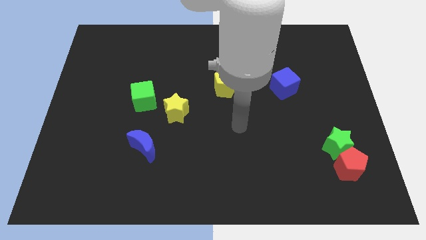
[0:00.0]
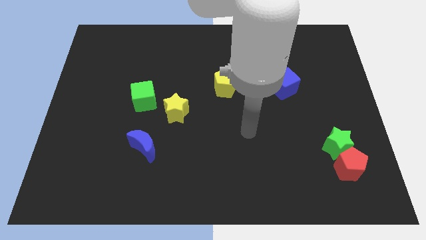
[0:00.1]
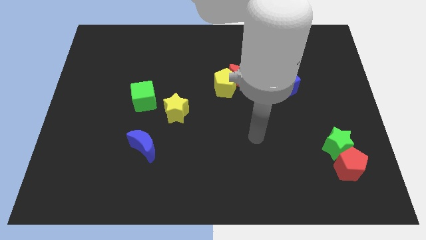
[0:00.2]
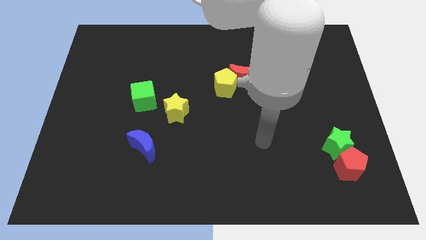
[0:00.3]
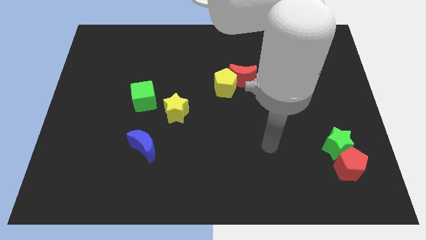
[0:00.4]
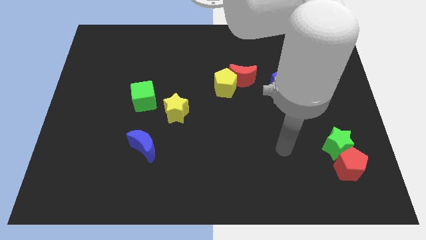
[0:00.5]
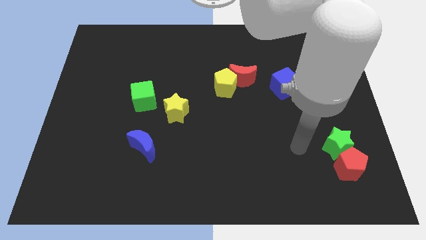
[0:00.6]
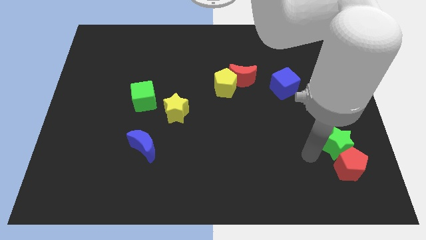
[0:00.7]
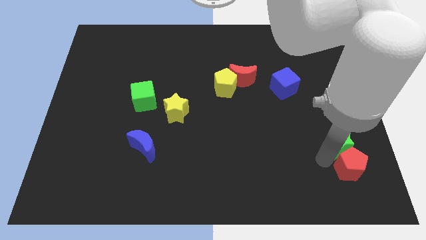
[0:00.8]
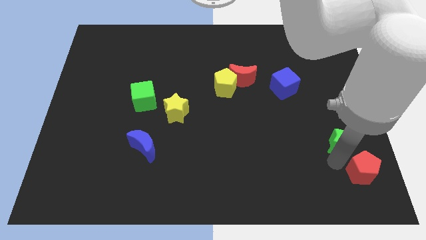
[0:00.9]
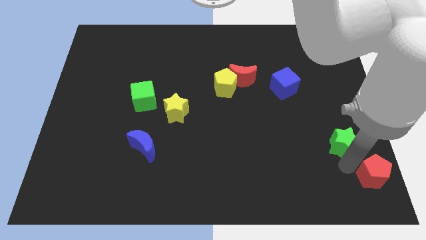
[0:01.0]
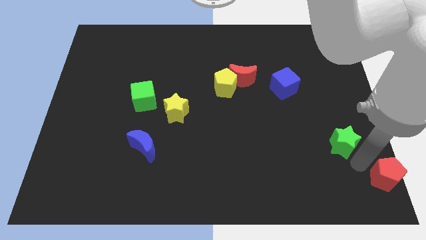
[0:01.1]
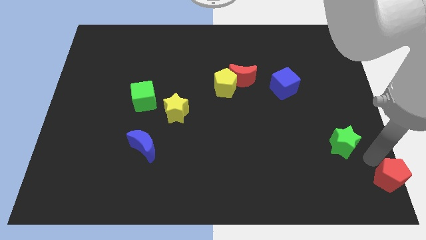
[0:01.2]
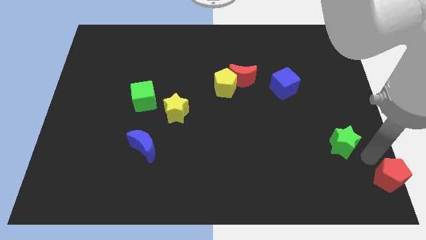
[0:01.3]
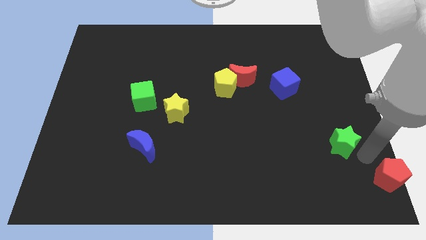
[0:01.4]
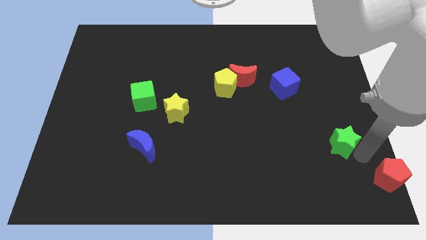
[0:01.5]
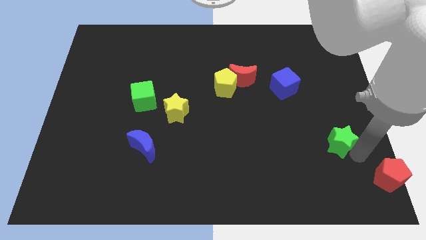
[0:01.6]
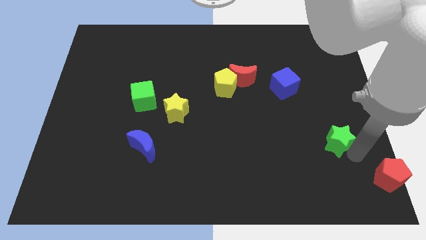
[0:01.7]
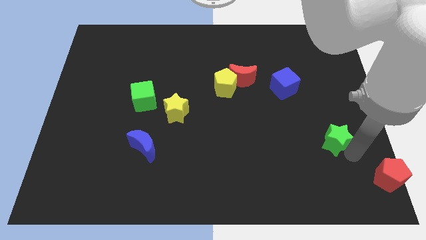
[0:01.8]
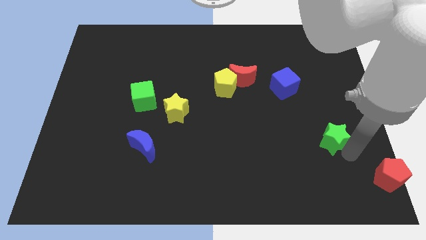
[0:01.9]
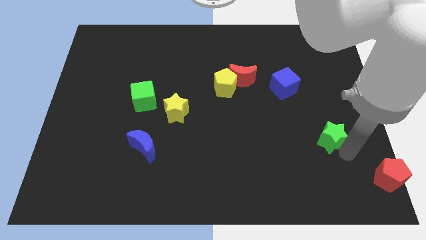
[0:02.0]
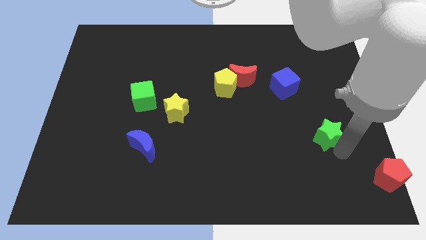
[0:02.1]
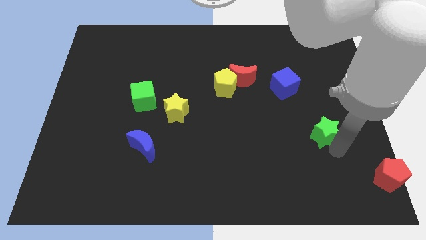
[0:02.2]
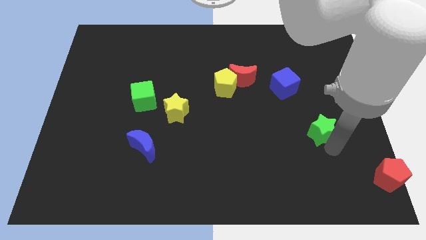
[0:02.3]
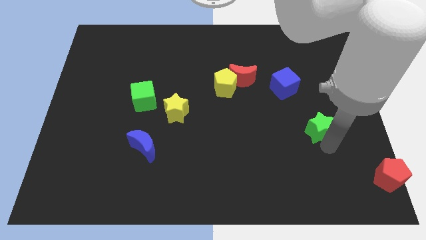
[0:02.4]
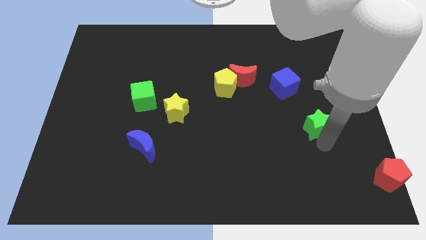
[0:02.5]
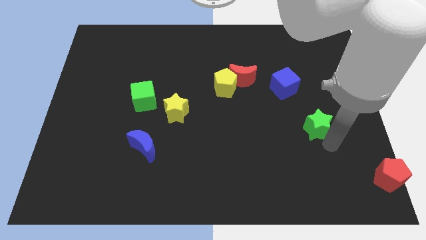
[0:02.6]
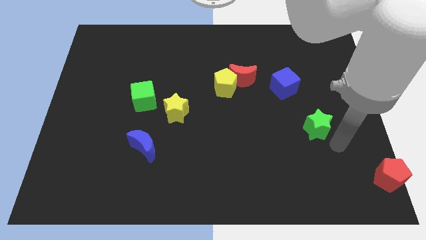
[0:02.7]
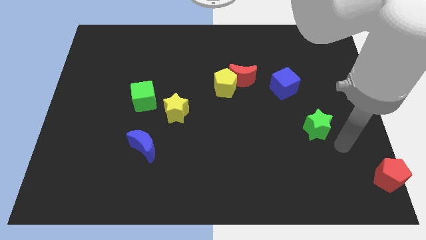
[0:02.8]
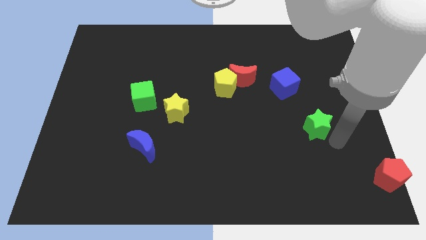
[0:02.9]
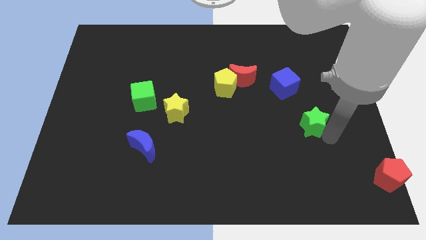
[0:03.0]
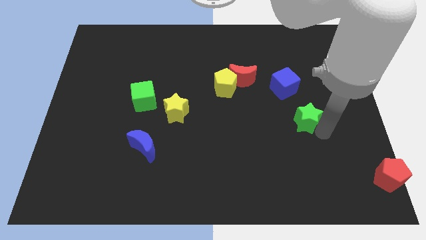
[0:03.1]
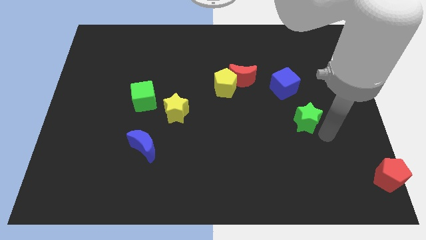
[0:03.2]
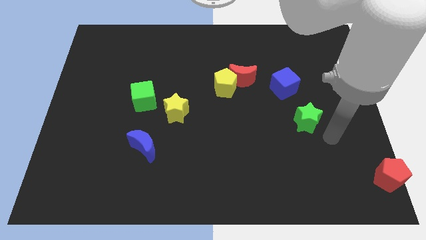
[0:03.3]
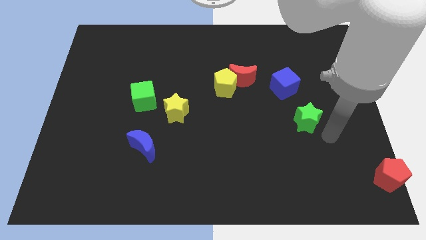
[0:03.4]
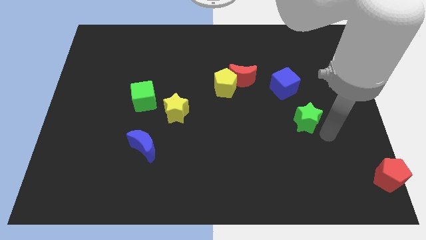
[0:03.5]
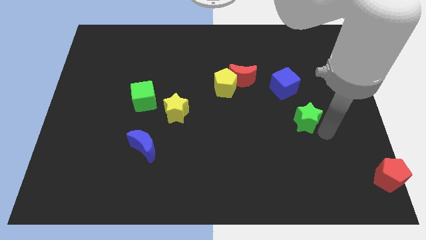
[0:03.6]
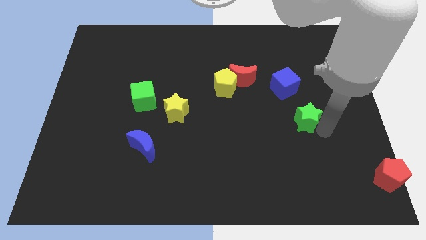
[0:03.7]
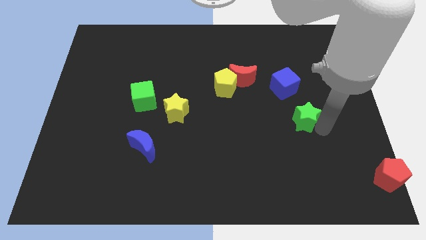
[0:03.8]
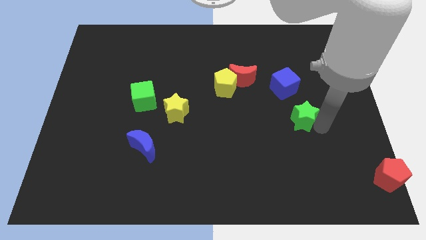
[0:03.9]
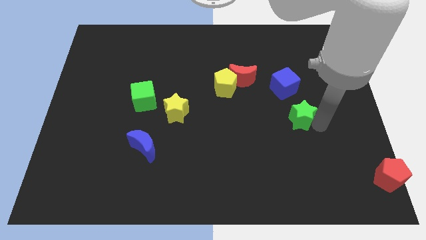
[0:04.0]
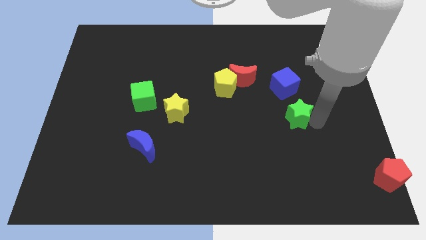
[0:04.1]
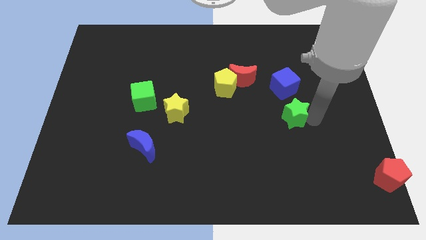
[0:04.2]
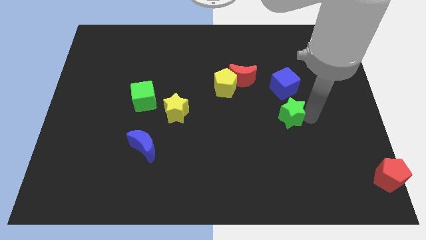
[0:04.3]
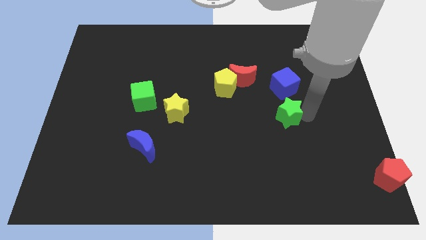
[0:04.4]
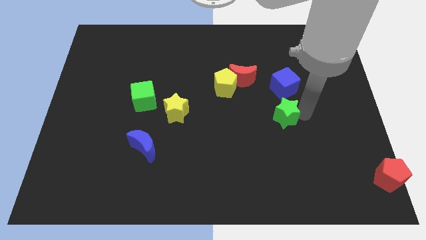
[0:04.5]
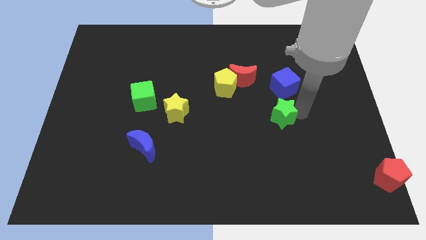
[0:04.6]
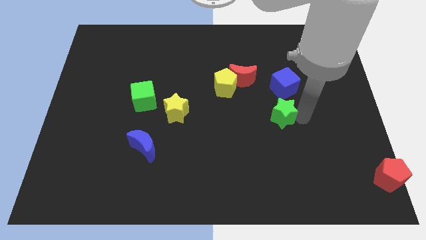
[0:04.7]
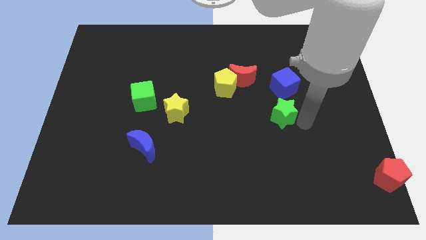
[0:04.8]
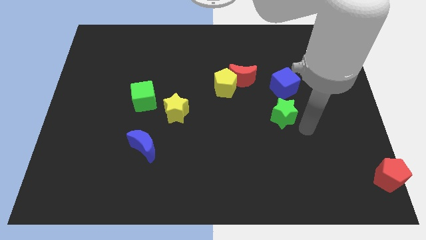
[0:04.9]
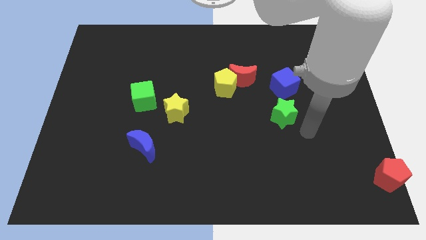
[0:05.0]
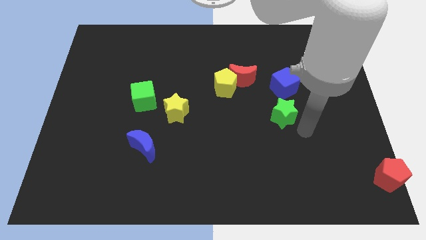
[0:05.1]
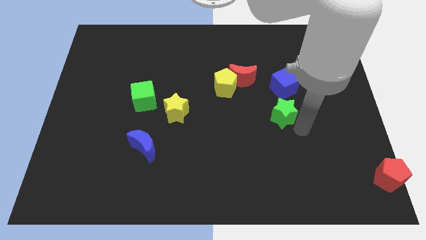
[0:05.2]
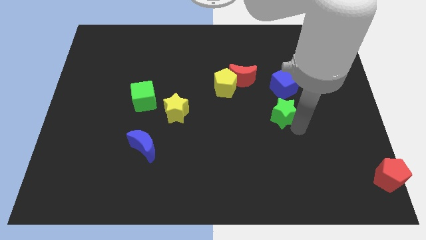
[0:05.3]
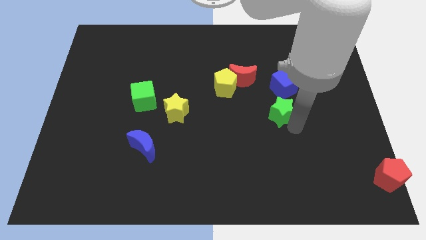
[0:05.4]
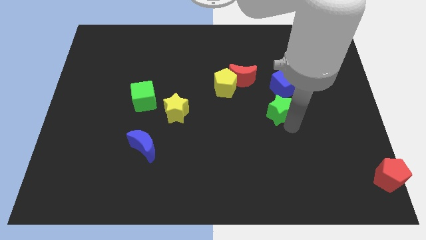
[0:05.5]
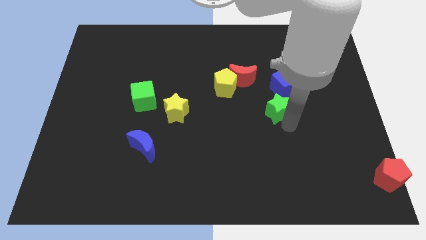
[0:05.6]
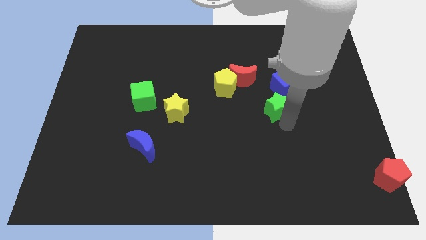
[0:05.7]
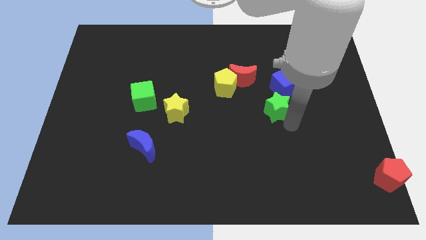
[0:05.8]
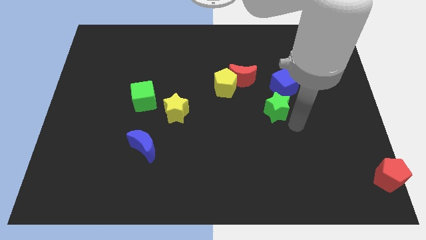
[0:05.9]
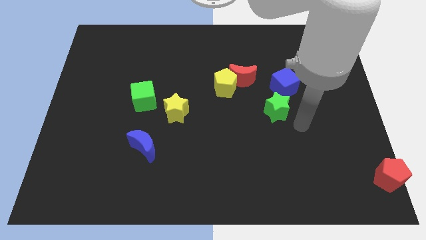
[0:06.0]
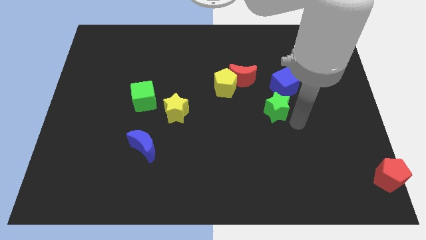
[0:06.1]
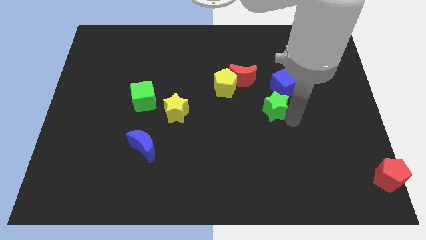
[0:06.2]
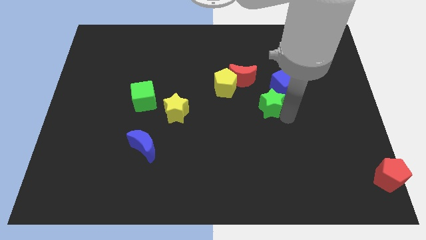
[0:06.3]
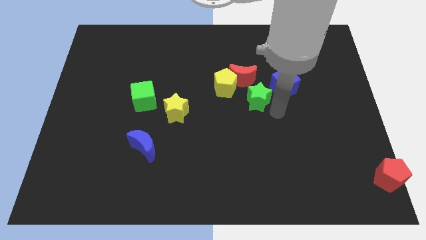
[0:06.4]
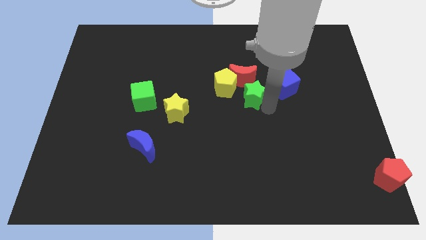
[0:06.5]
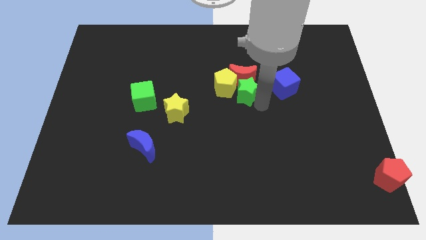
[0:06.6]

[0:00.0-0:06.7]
put the green star next to the red moon

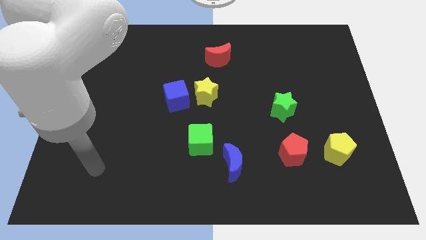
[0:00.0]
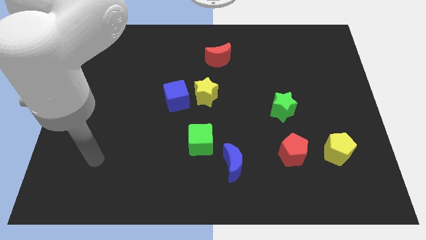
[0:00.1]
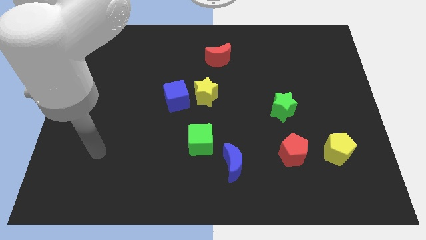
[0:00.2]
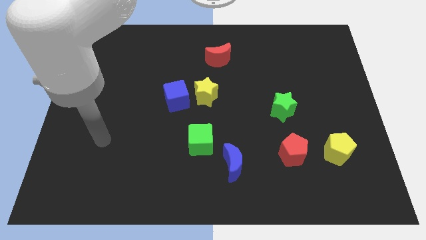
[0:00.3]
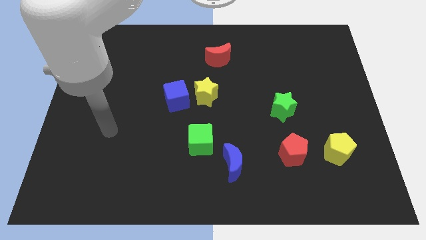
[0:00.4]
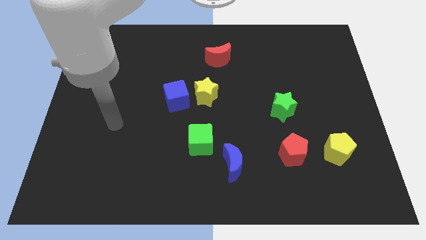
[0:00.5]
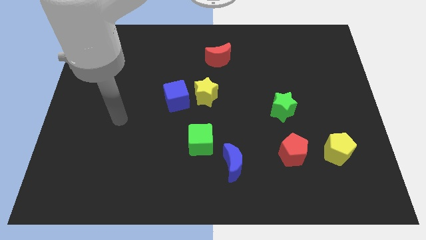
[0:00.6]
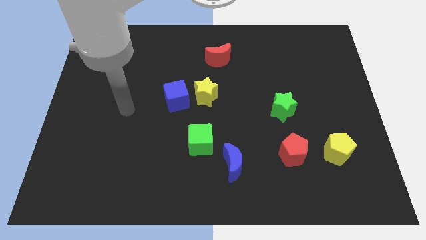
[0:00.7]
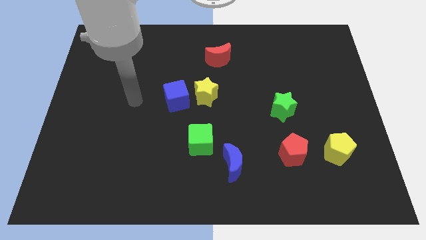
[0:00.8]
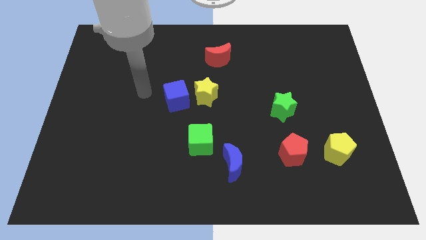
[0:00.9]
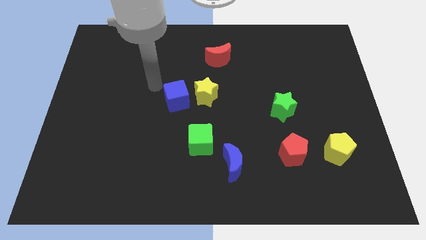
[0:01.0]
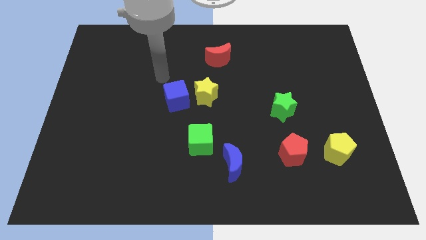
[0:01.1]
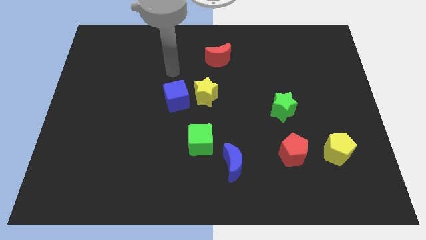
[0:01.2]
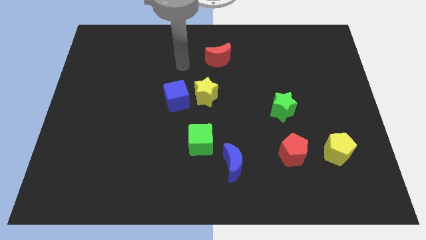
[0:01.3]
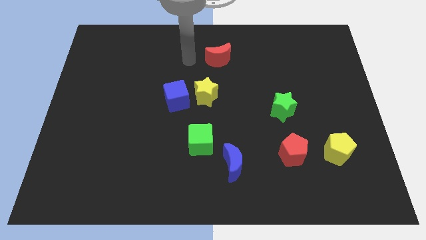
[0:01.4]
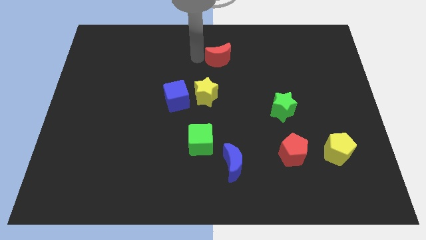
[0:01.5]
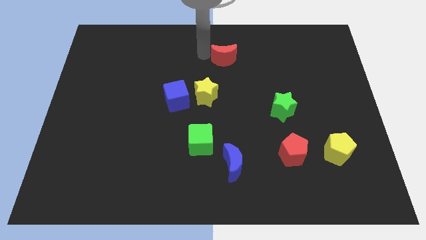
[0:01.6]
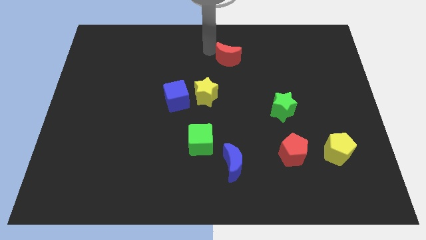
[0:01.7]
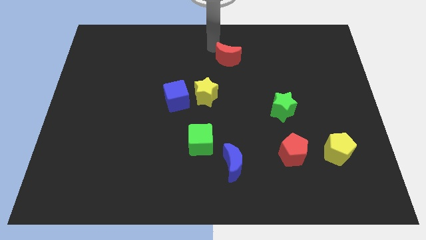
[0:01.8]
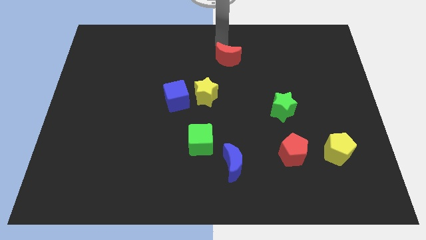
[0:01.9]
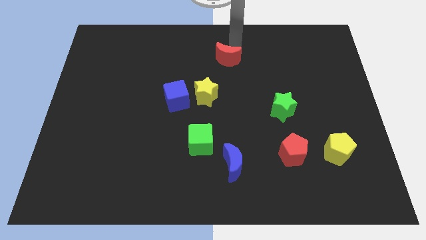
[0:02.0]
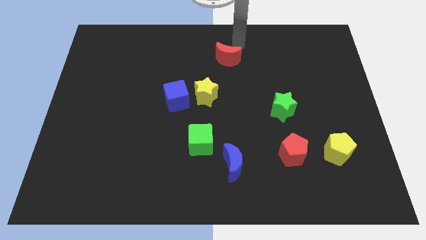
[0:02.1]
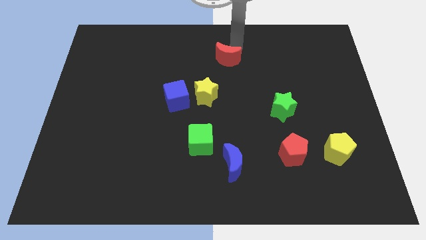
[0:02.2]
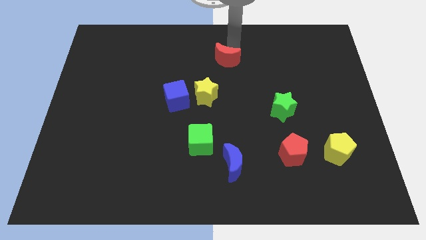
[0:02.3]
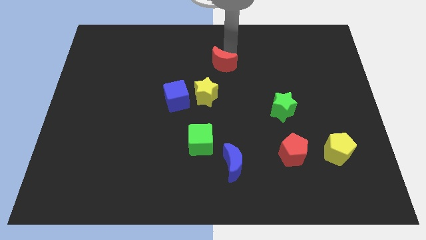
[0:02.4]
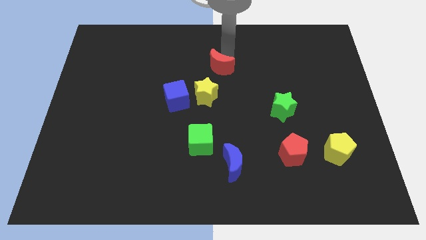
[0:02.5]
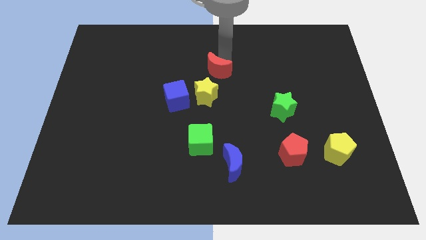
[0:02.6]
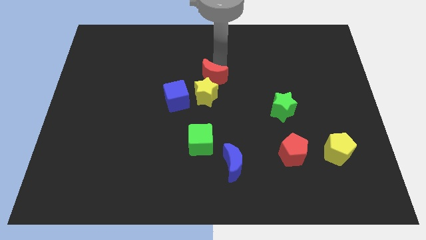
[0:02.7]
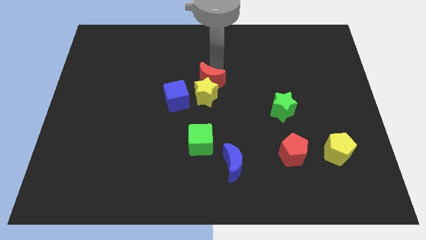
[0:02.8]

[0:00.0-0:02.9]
move the red moon close to the yellow star
